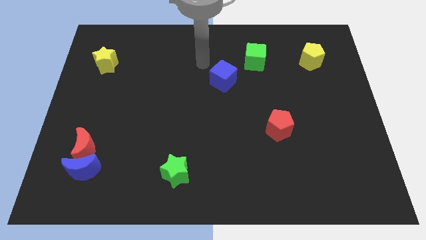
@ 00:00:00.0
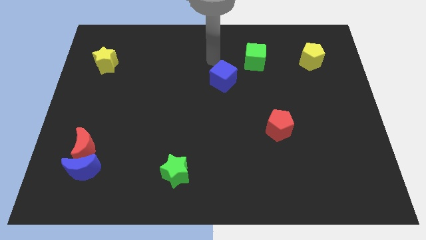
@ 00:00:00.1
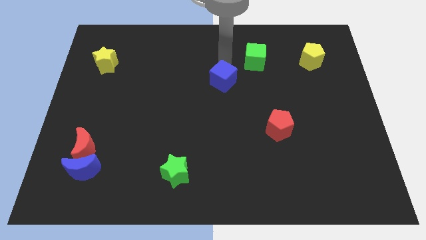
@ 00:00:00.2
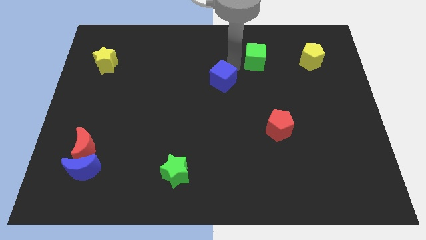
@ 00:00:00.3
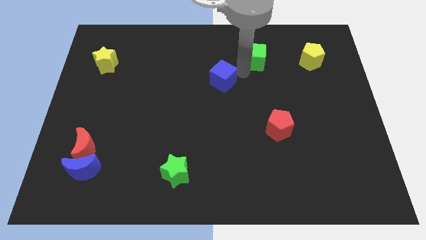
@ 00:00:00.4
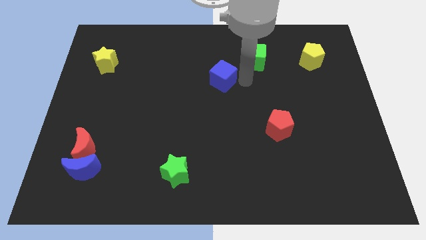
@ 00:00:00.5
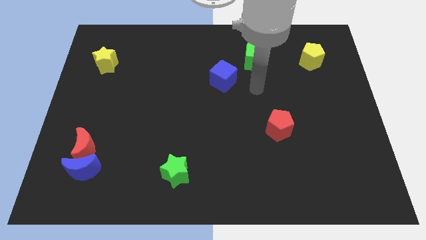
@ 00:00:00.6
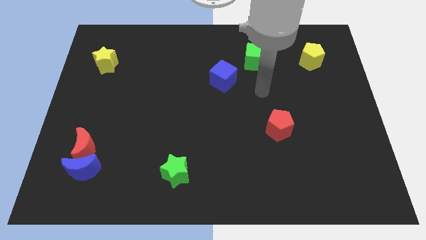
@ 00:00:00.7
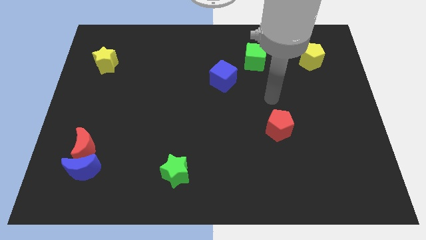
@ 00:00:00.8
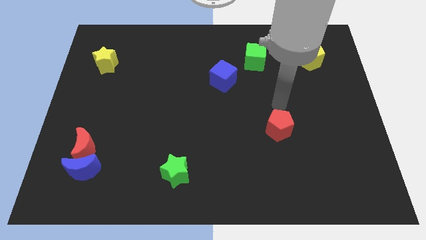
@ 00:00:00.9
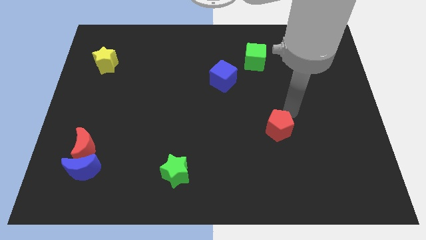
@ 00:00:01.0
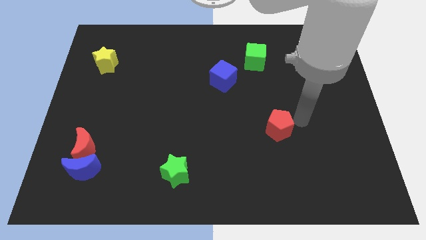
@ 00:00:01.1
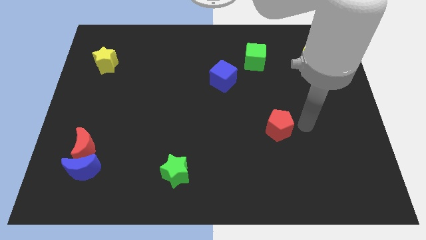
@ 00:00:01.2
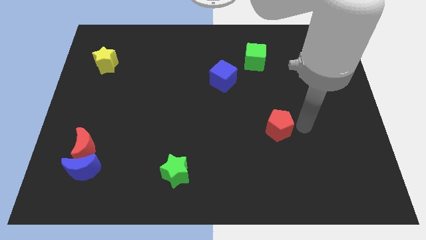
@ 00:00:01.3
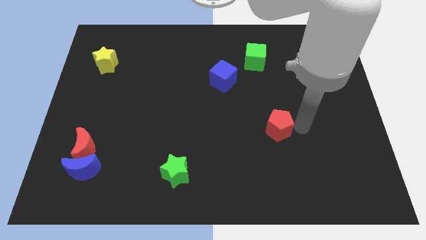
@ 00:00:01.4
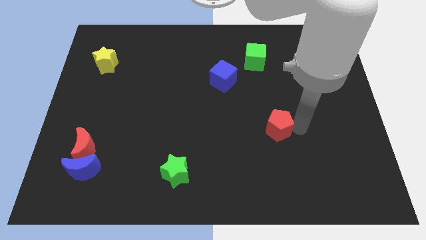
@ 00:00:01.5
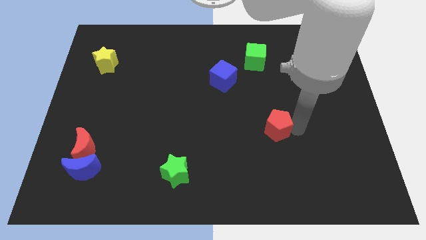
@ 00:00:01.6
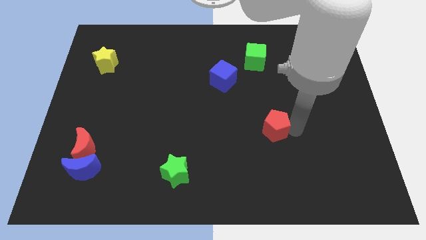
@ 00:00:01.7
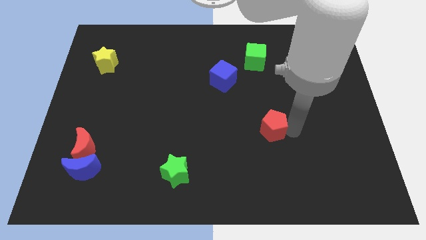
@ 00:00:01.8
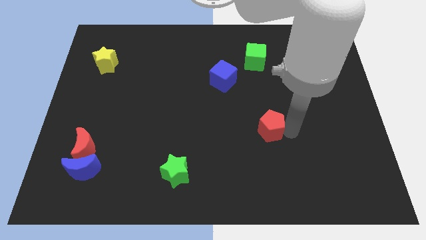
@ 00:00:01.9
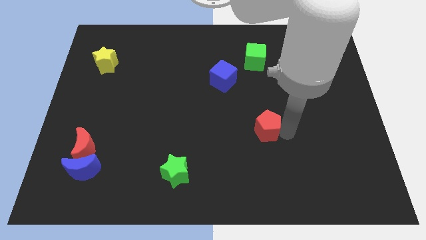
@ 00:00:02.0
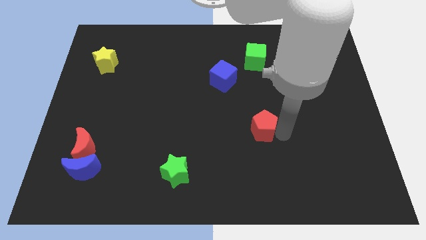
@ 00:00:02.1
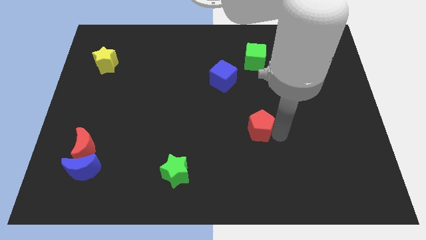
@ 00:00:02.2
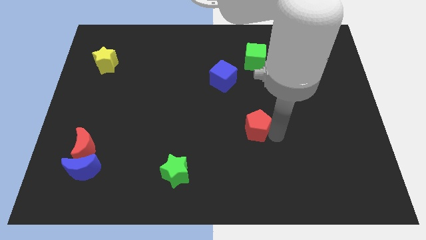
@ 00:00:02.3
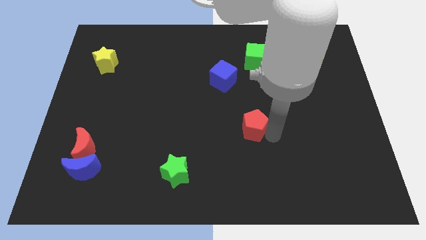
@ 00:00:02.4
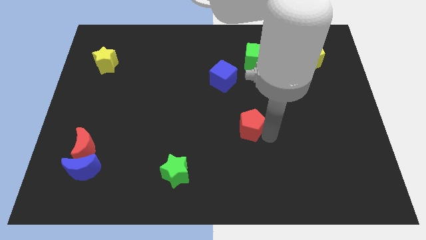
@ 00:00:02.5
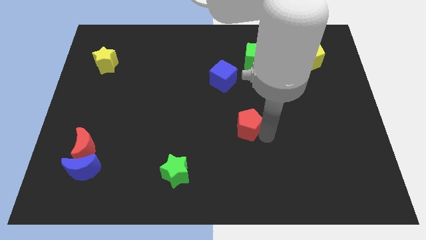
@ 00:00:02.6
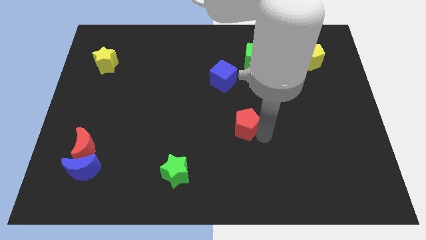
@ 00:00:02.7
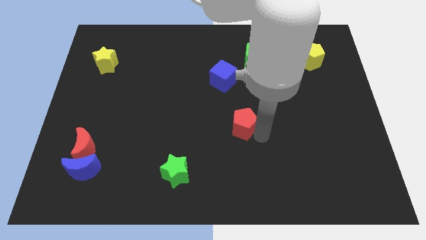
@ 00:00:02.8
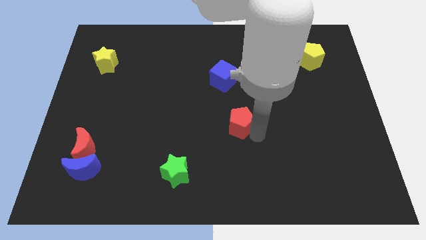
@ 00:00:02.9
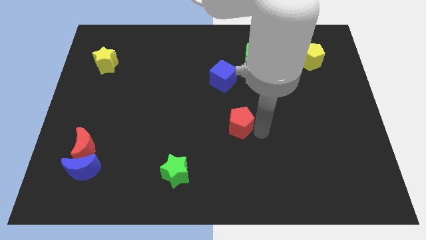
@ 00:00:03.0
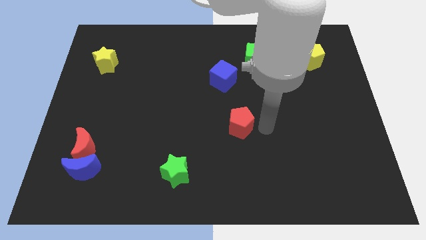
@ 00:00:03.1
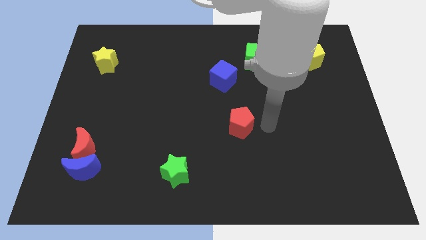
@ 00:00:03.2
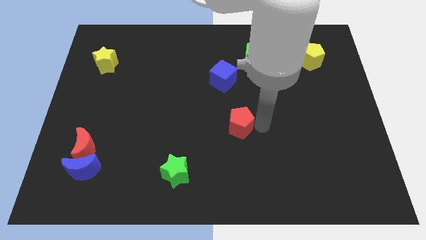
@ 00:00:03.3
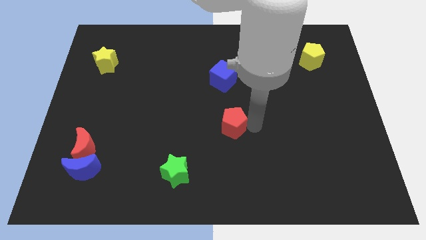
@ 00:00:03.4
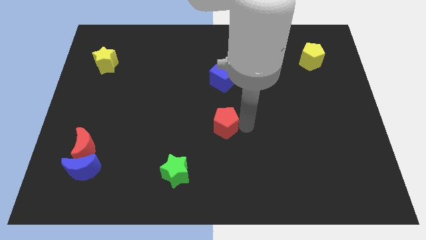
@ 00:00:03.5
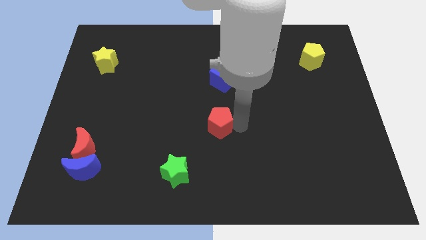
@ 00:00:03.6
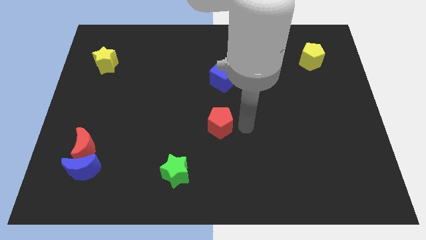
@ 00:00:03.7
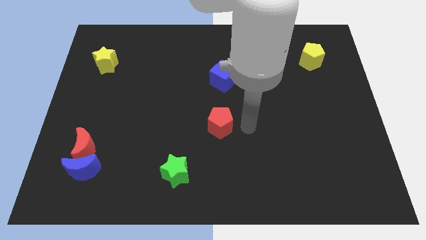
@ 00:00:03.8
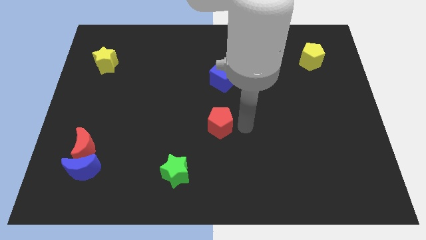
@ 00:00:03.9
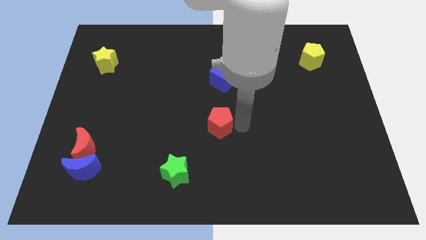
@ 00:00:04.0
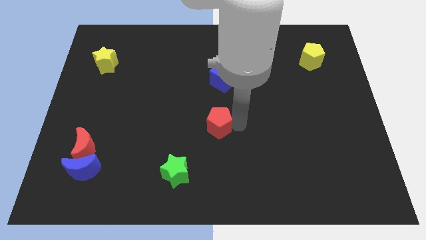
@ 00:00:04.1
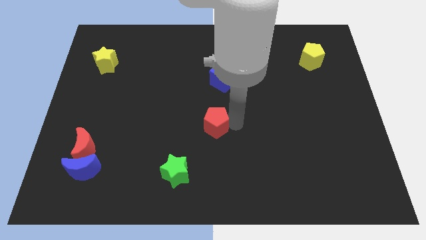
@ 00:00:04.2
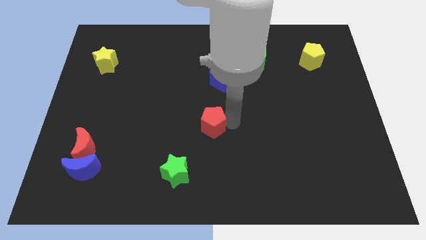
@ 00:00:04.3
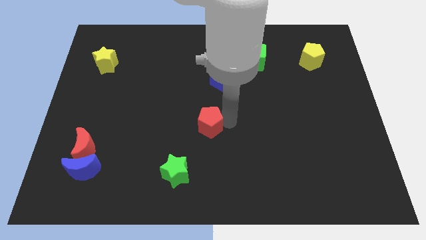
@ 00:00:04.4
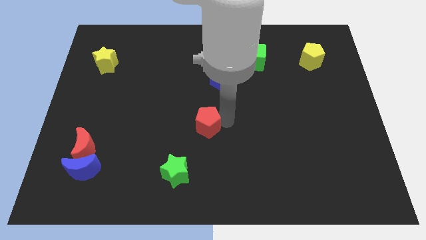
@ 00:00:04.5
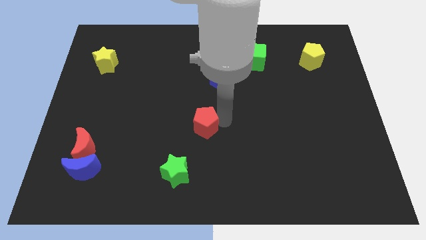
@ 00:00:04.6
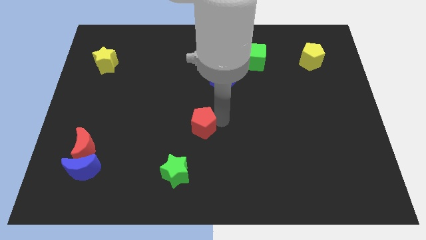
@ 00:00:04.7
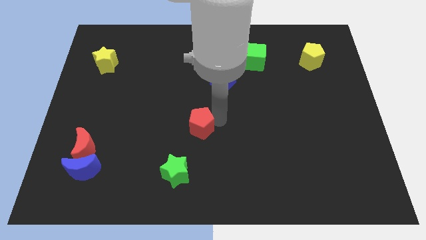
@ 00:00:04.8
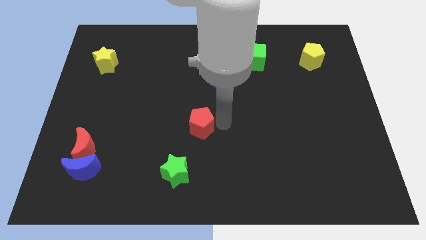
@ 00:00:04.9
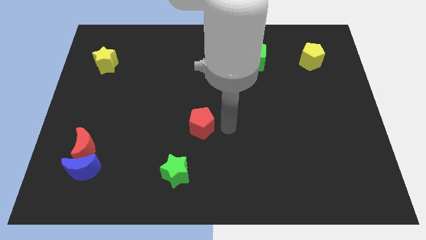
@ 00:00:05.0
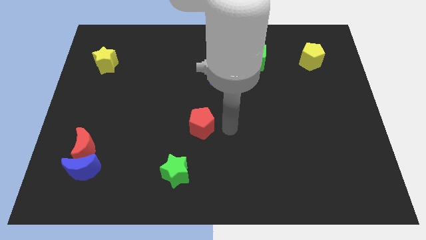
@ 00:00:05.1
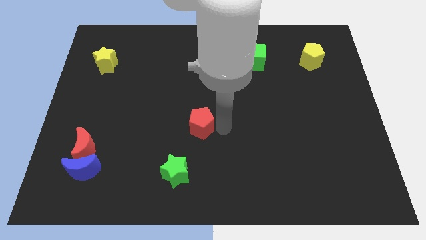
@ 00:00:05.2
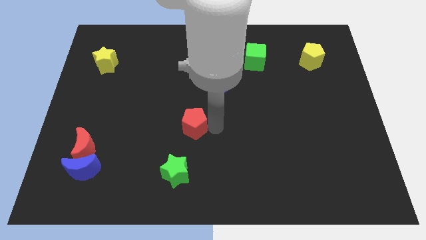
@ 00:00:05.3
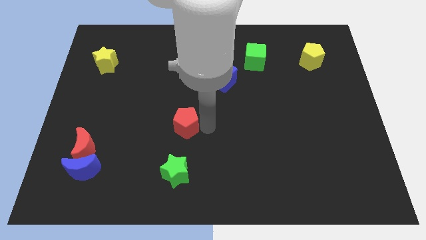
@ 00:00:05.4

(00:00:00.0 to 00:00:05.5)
move the red pentagon left

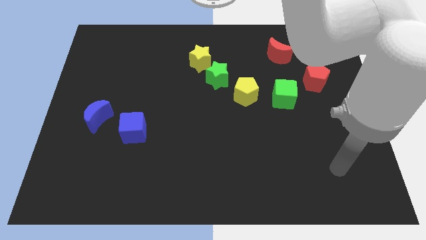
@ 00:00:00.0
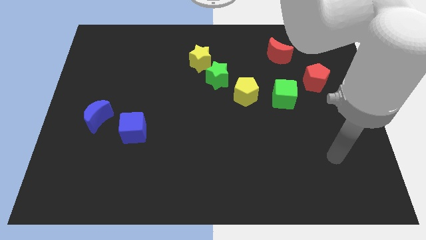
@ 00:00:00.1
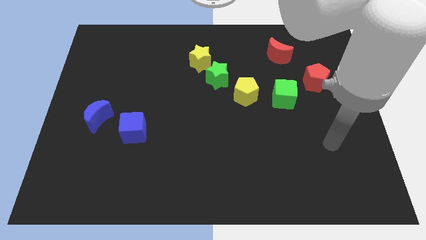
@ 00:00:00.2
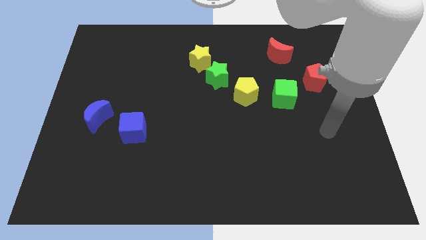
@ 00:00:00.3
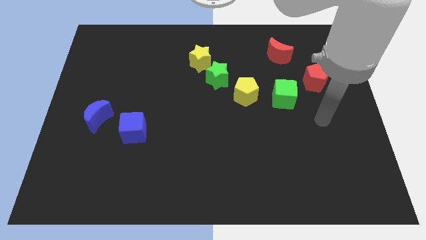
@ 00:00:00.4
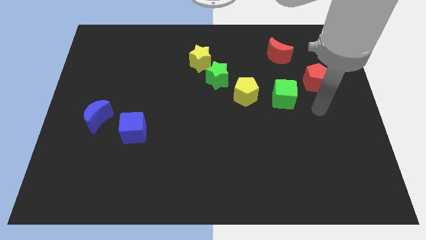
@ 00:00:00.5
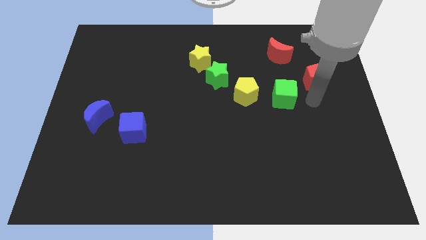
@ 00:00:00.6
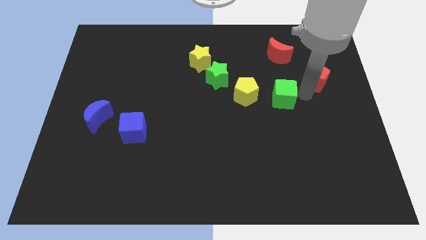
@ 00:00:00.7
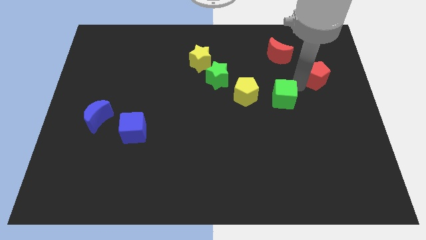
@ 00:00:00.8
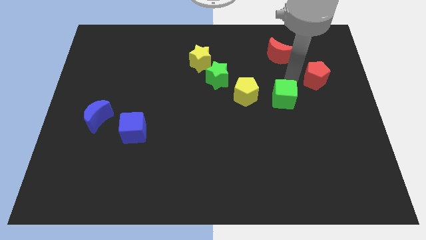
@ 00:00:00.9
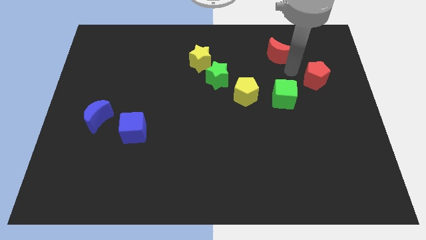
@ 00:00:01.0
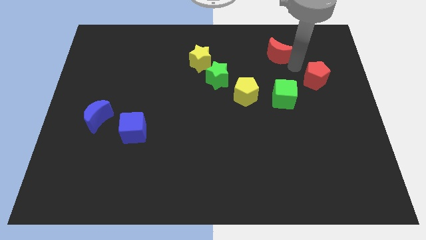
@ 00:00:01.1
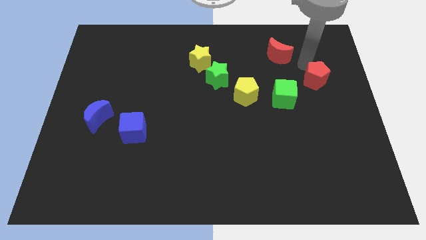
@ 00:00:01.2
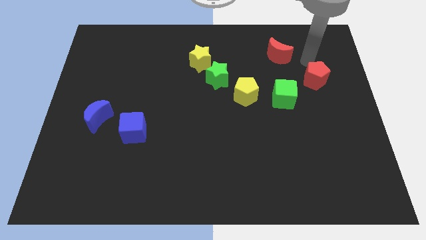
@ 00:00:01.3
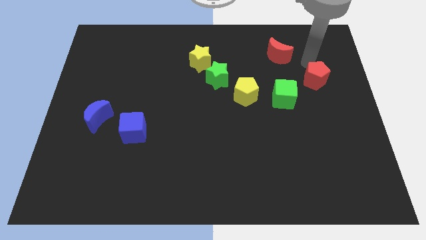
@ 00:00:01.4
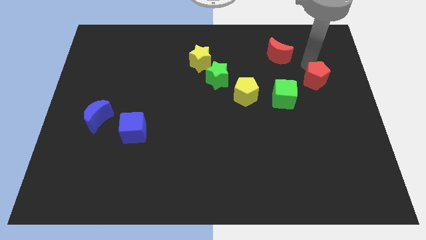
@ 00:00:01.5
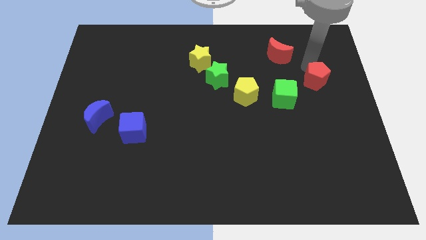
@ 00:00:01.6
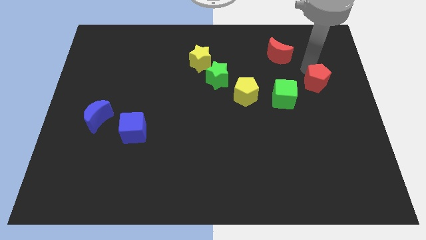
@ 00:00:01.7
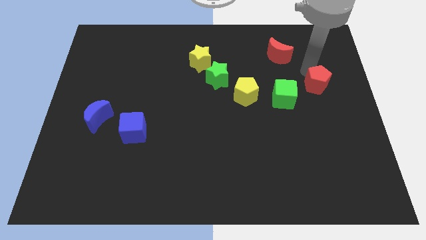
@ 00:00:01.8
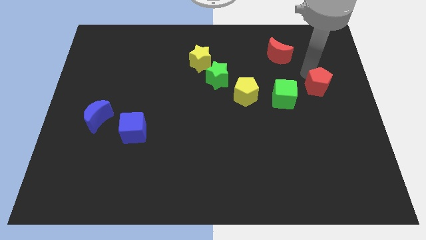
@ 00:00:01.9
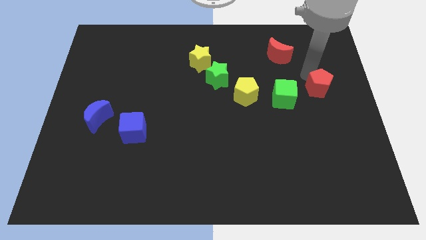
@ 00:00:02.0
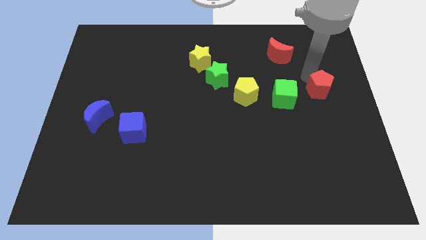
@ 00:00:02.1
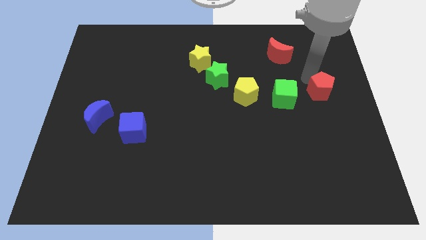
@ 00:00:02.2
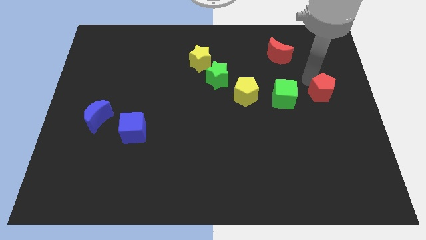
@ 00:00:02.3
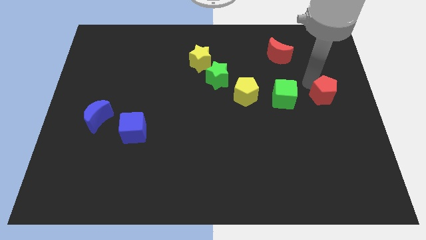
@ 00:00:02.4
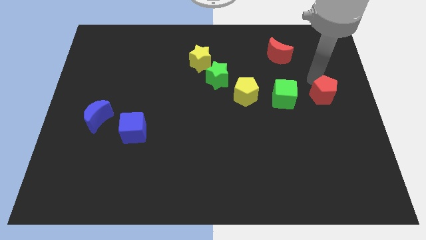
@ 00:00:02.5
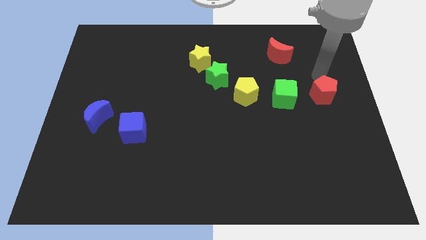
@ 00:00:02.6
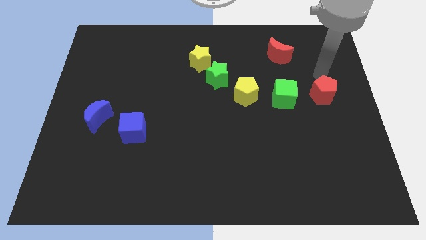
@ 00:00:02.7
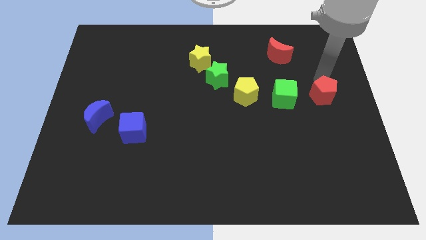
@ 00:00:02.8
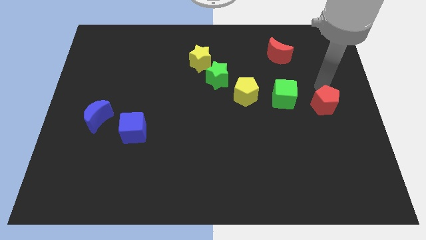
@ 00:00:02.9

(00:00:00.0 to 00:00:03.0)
slide the red pentagon slightly downwards
